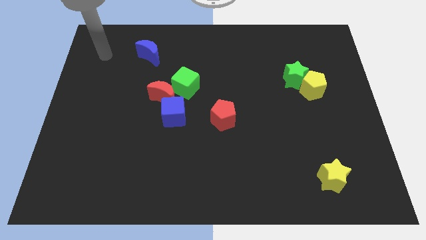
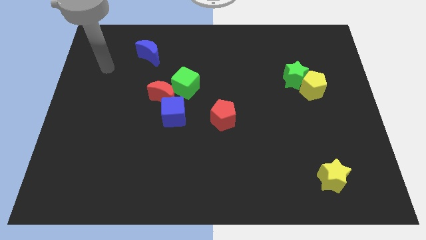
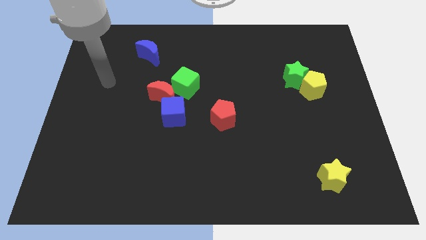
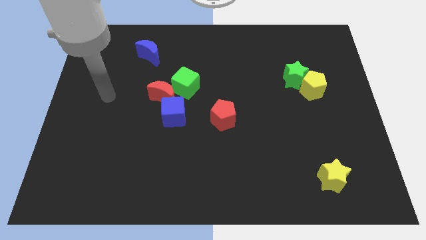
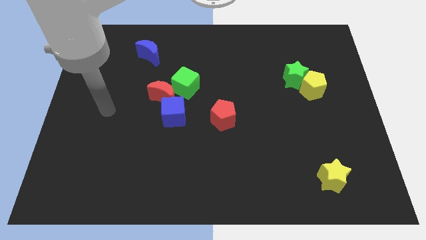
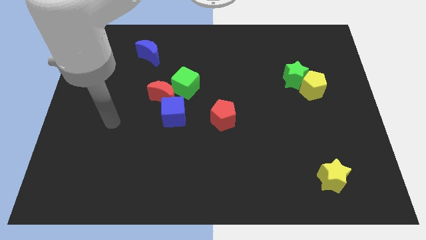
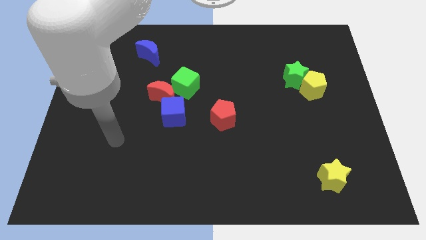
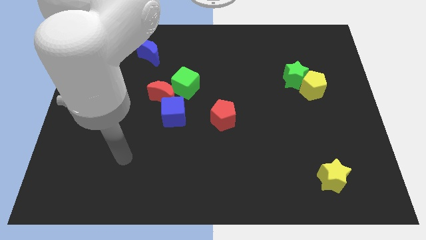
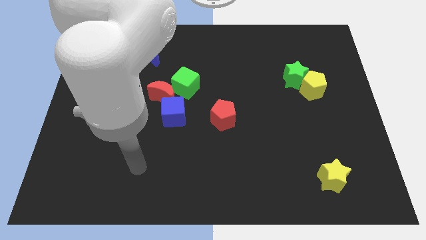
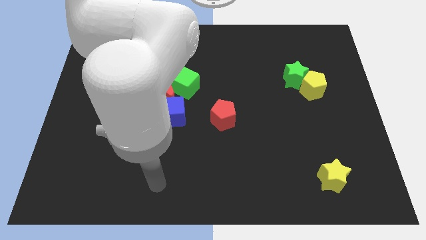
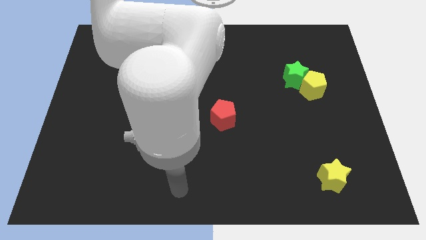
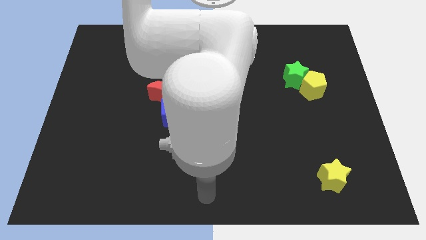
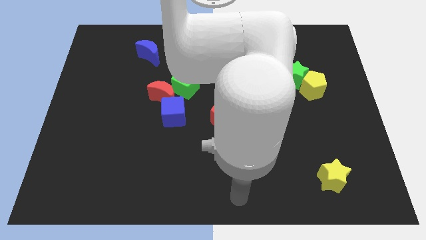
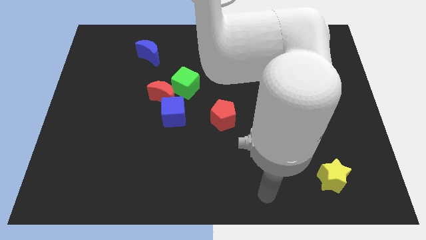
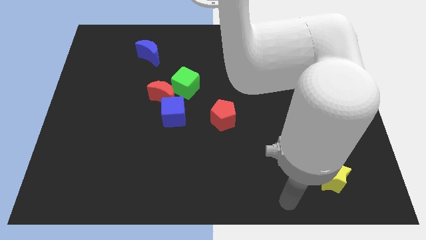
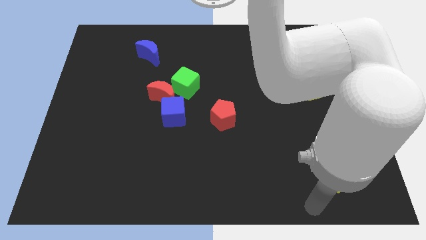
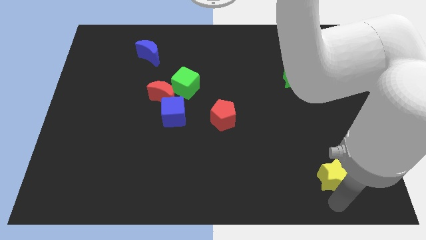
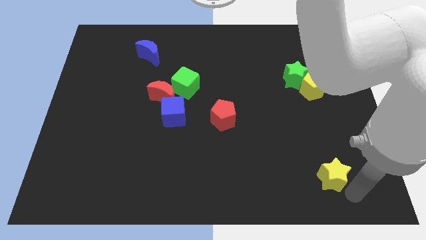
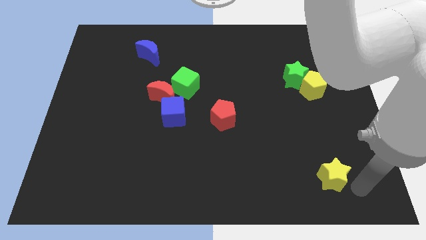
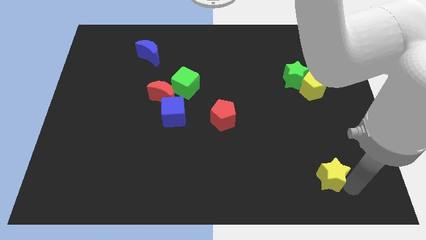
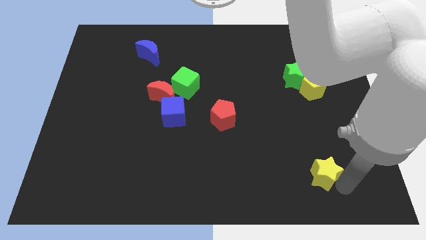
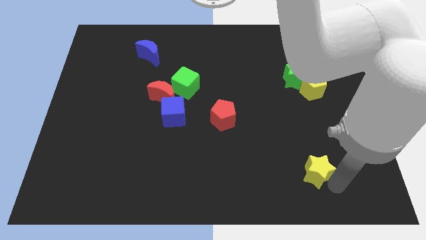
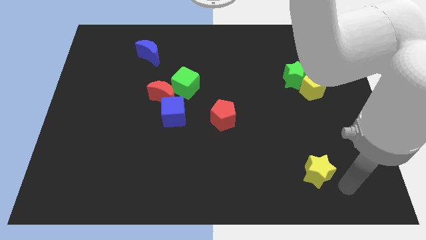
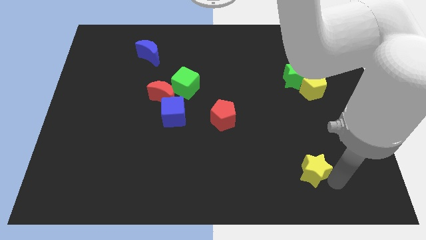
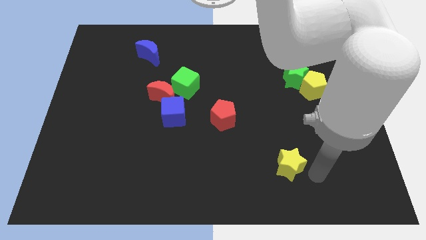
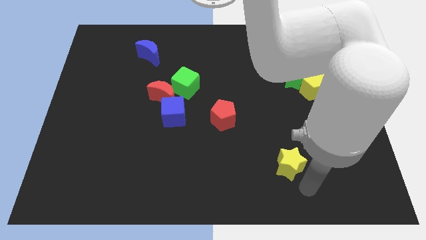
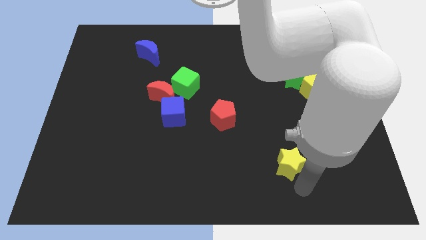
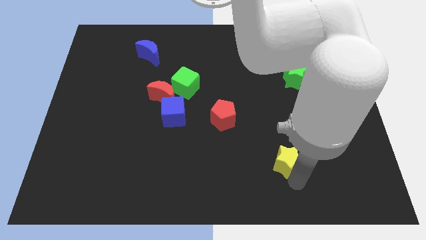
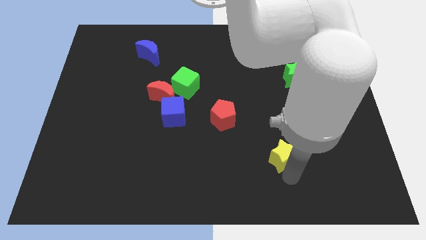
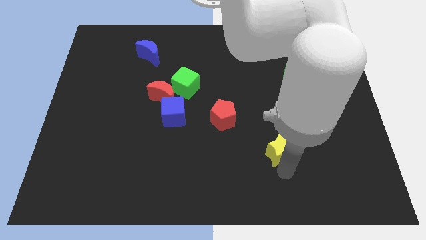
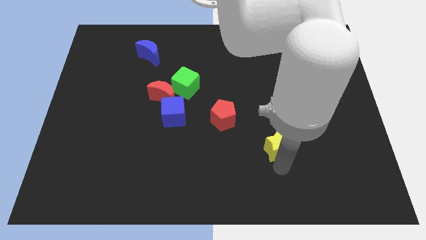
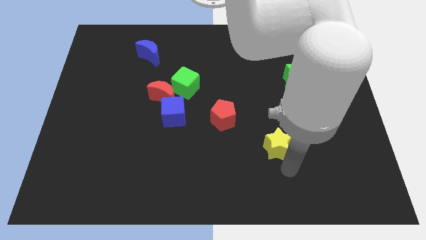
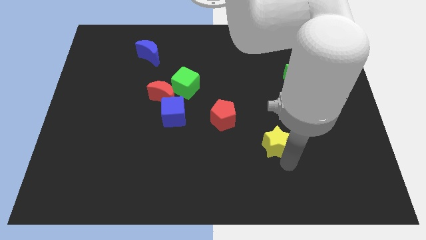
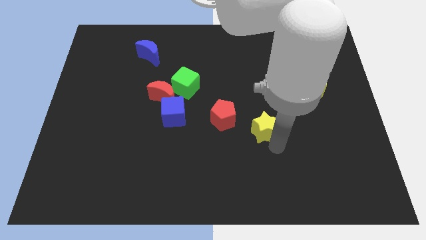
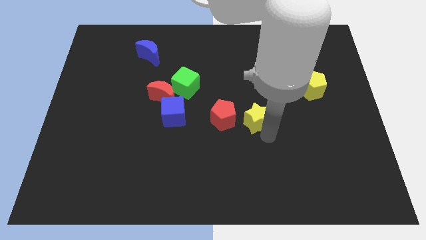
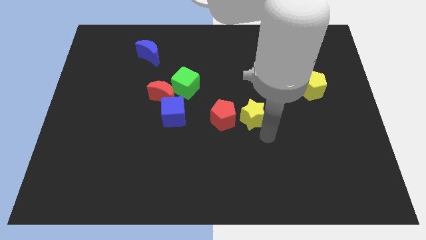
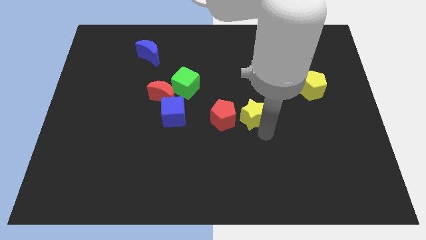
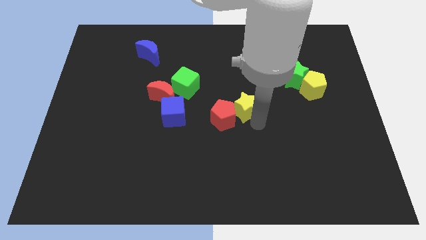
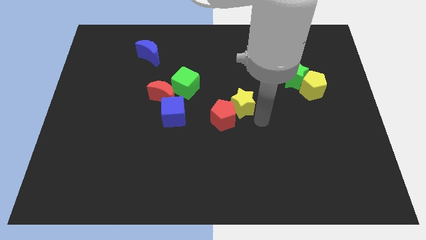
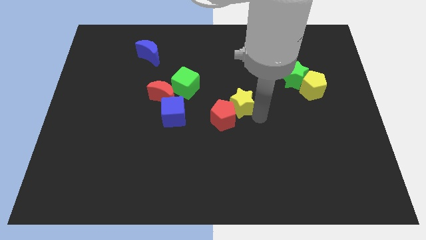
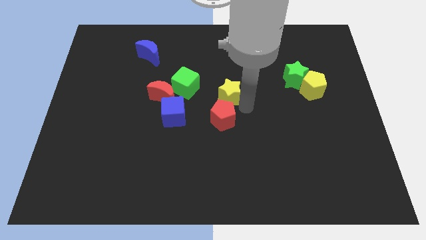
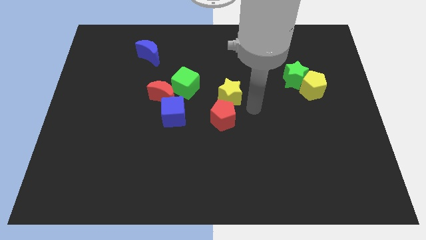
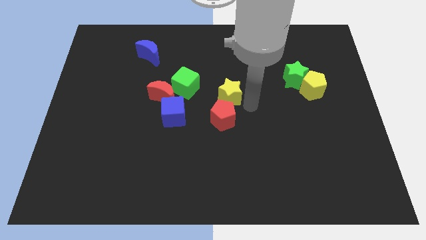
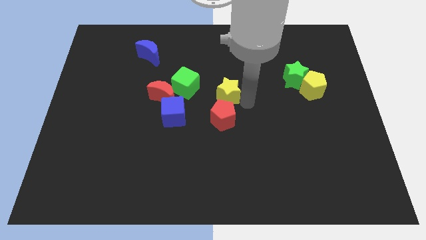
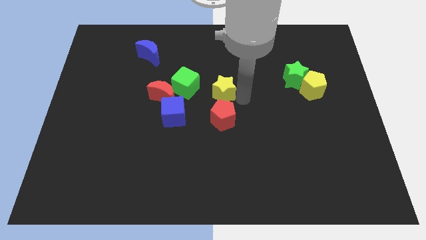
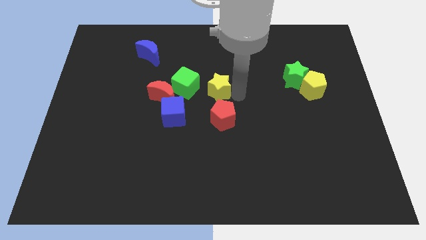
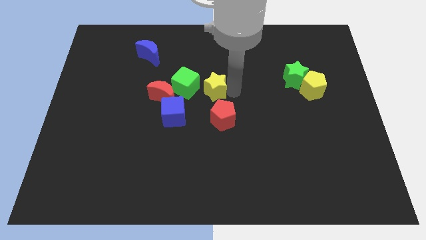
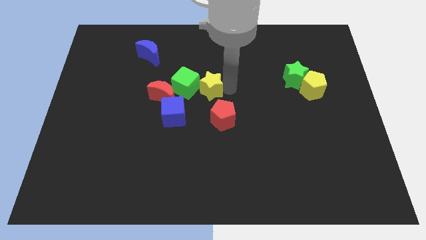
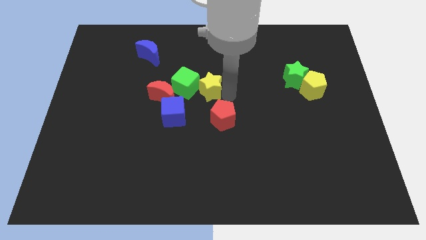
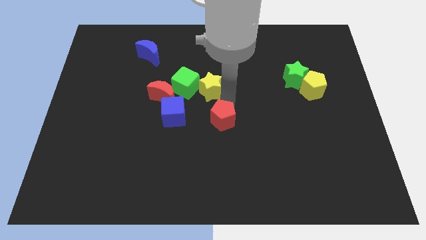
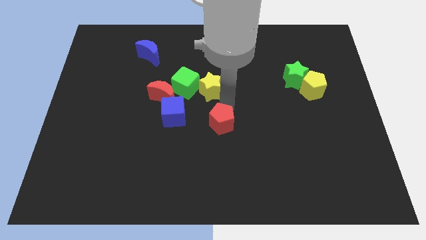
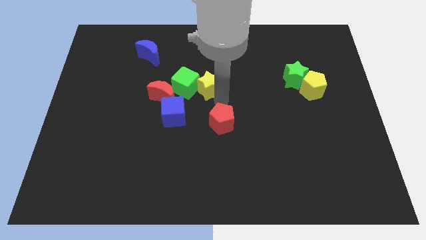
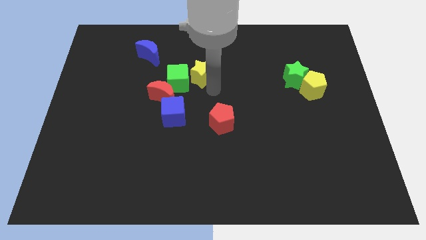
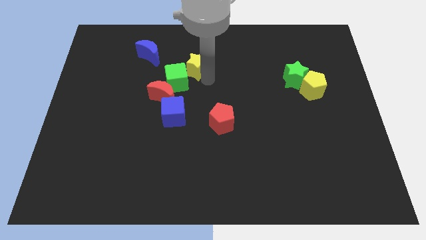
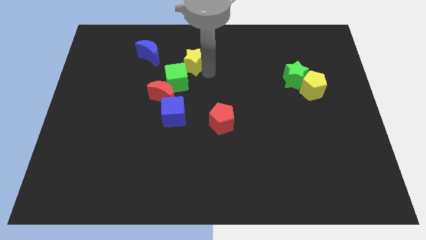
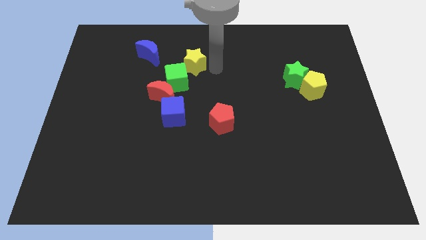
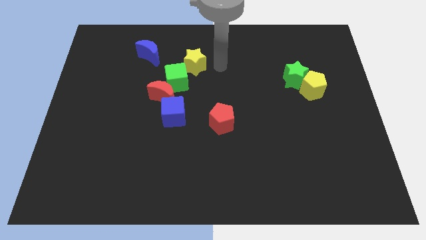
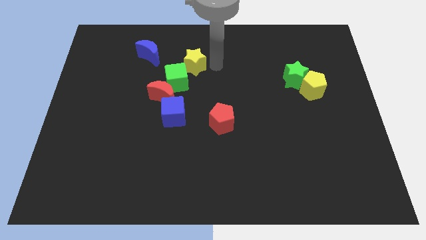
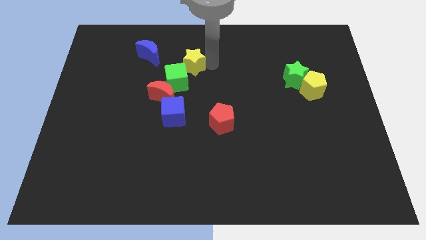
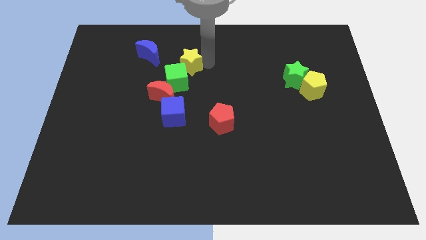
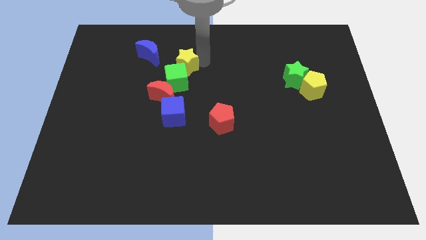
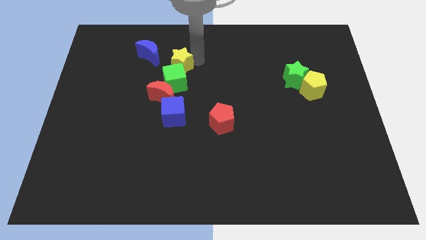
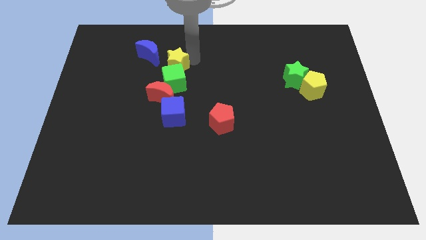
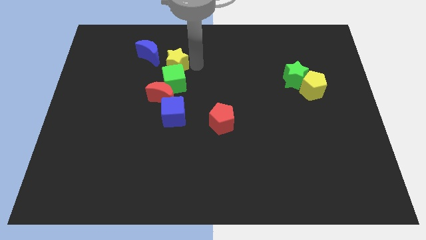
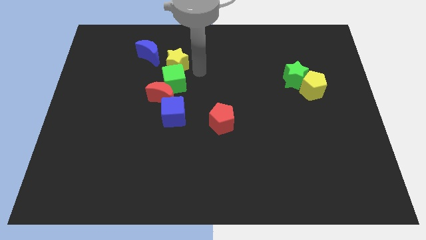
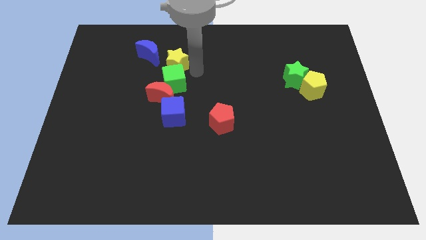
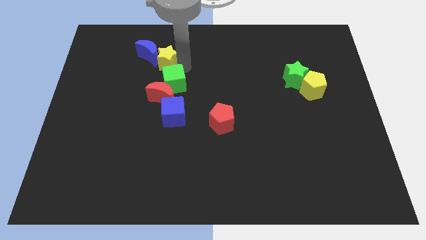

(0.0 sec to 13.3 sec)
put the yellow star close to the blue moon

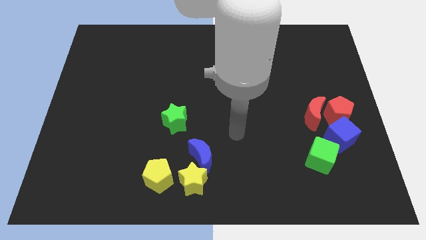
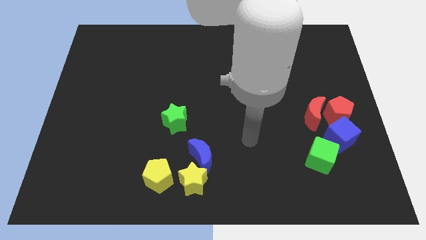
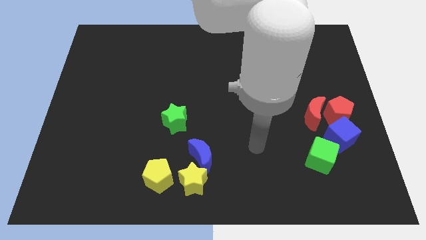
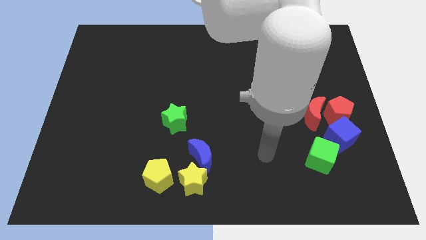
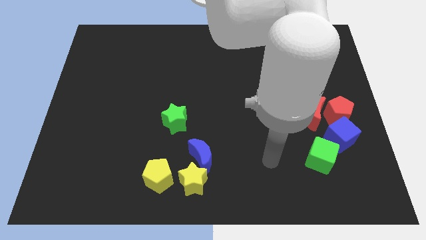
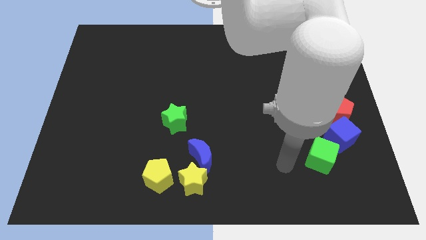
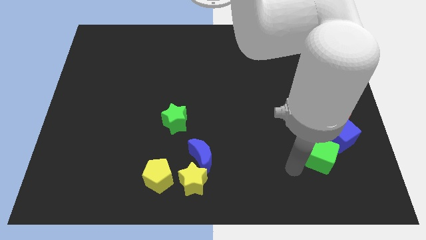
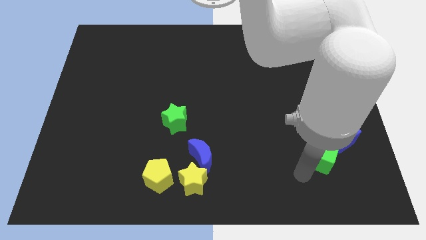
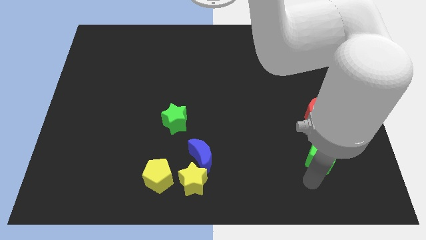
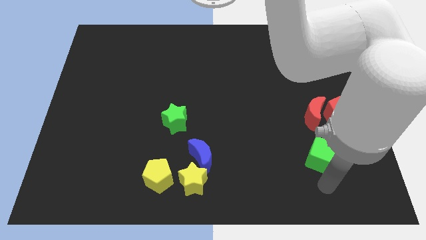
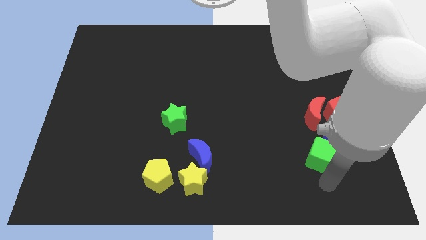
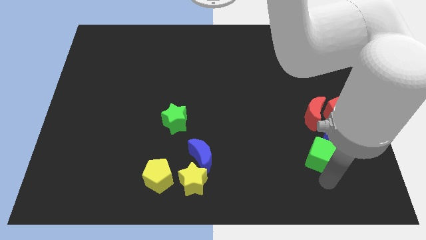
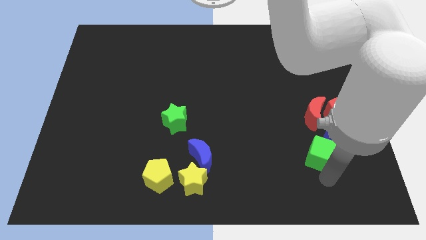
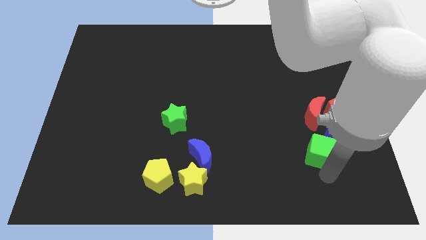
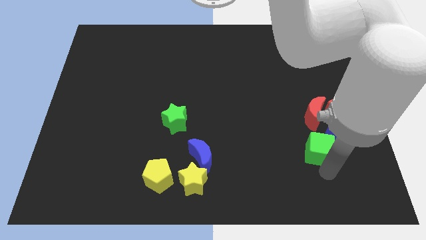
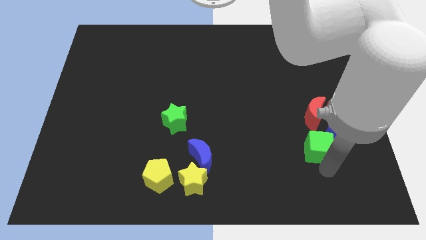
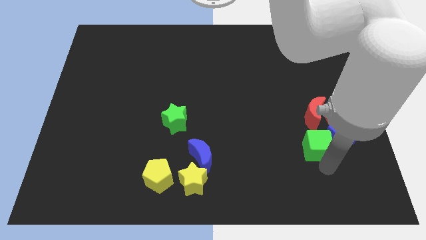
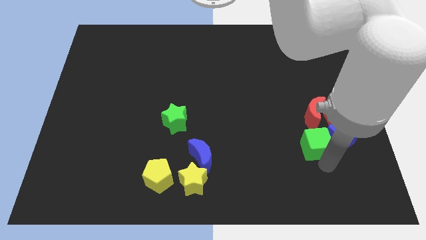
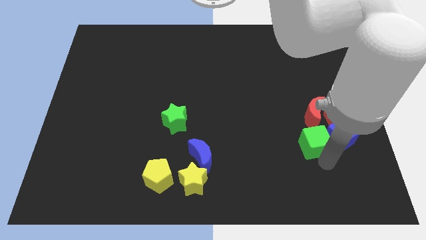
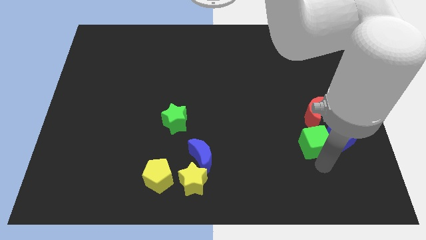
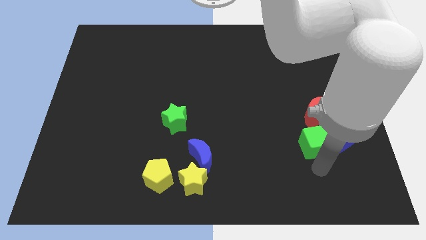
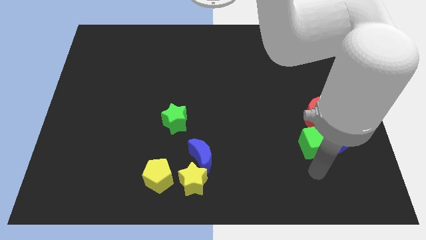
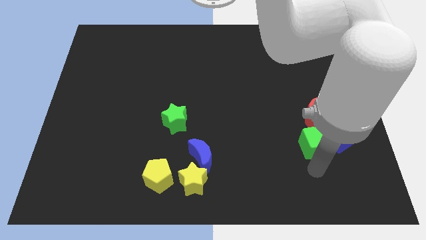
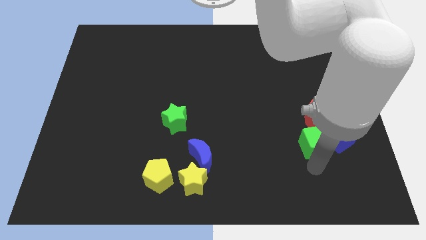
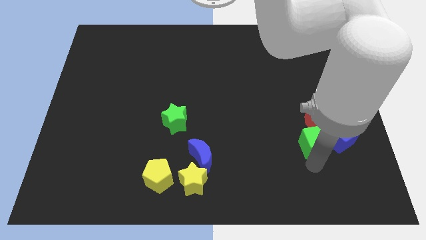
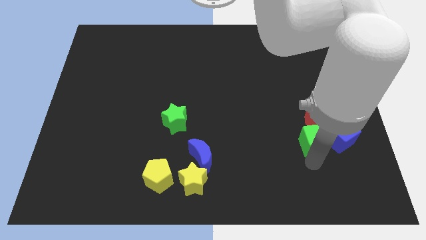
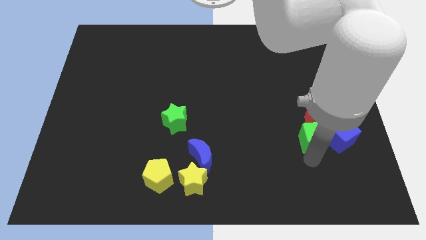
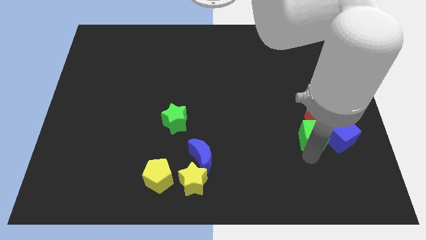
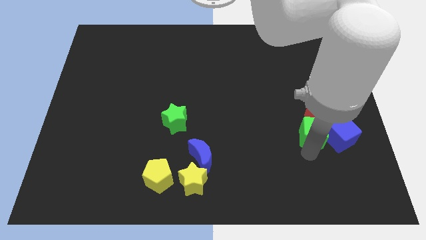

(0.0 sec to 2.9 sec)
push the green cube towards the red moon
